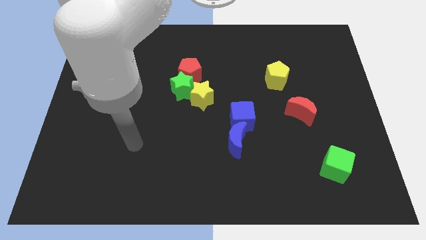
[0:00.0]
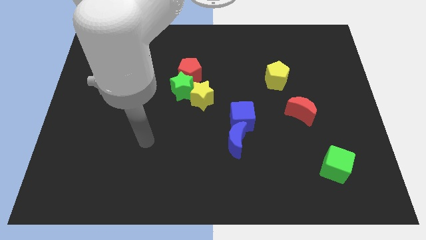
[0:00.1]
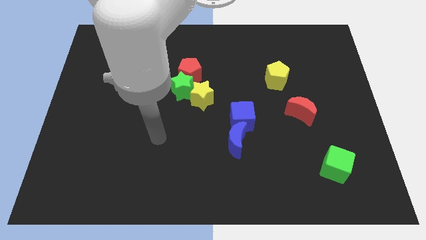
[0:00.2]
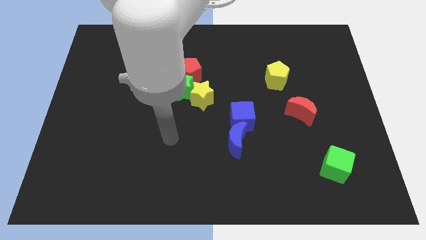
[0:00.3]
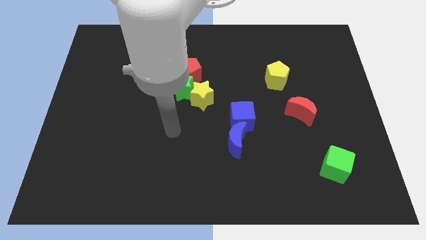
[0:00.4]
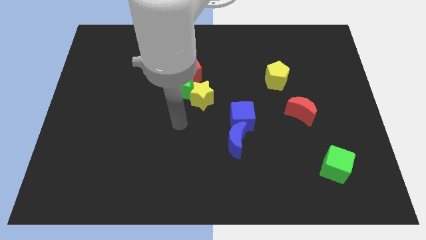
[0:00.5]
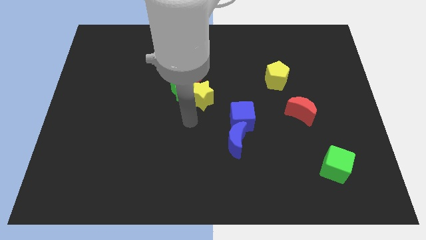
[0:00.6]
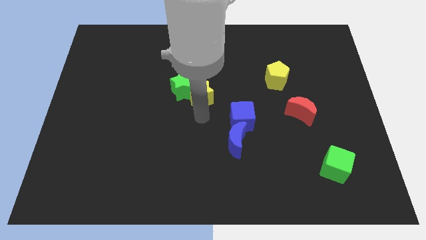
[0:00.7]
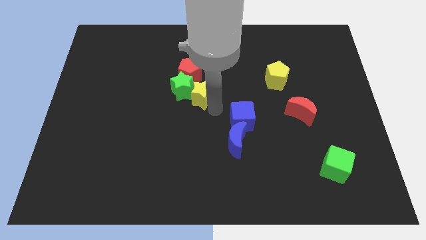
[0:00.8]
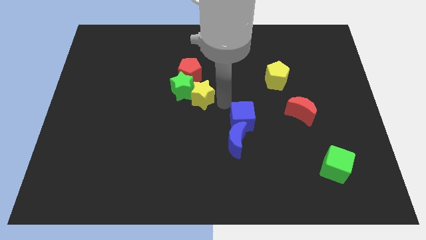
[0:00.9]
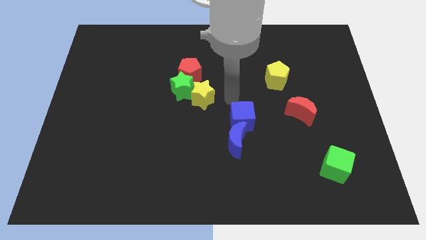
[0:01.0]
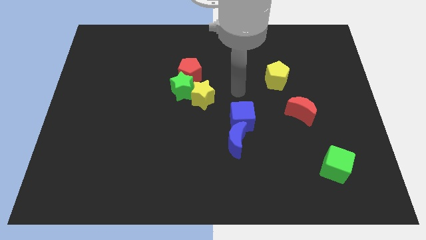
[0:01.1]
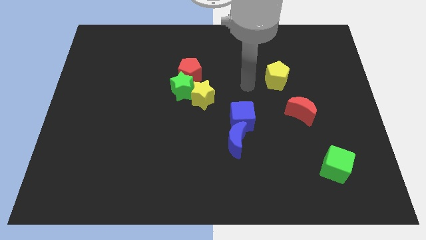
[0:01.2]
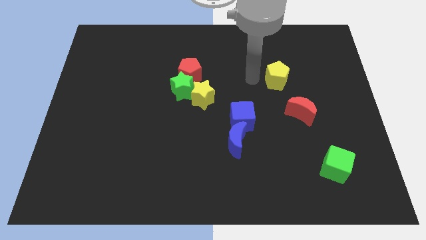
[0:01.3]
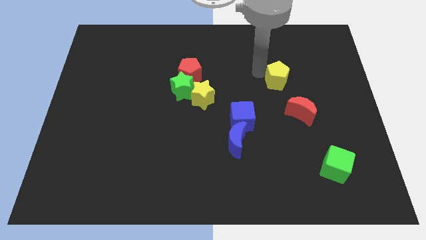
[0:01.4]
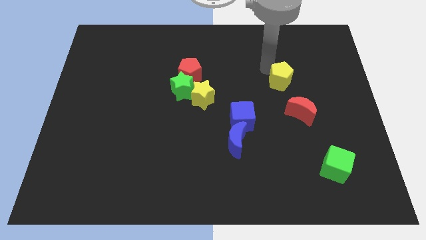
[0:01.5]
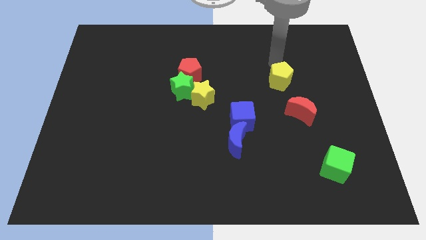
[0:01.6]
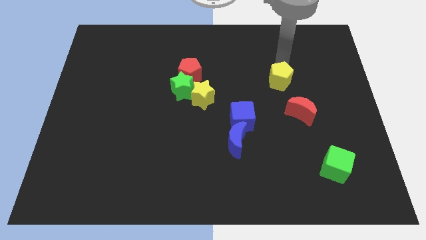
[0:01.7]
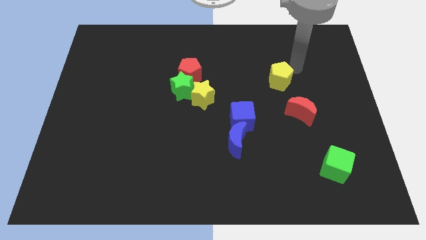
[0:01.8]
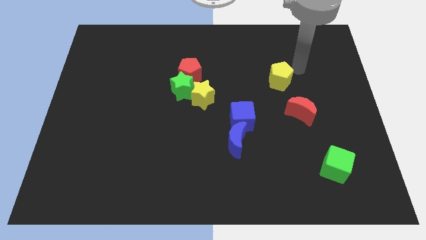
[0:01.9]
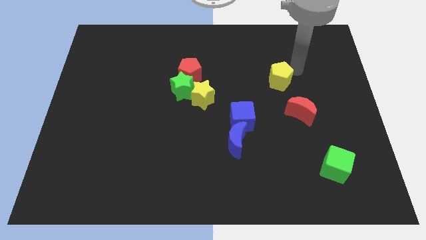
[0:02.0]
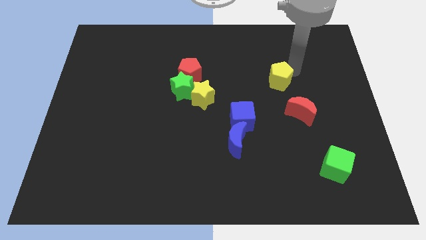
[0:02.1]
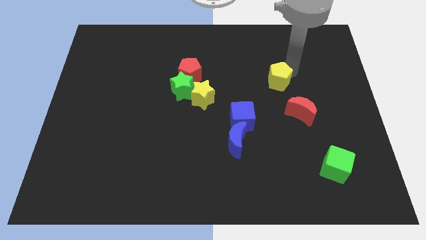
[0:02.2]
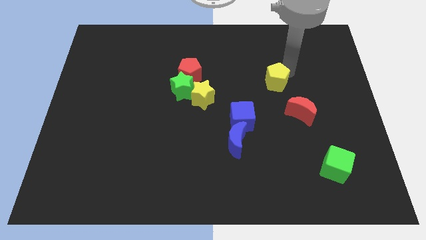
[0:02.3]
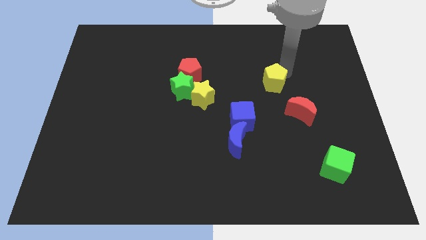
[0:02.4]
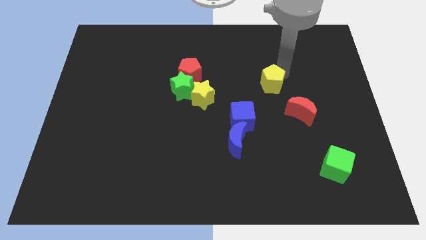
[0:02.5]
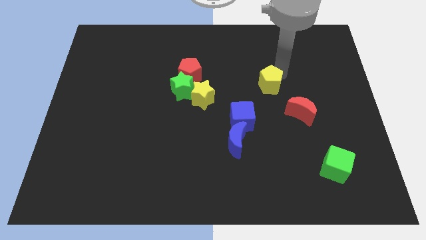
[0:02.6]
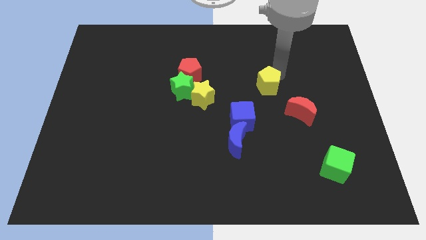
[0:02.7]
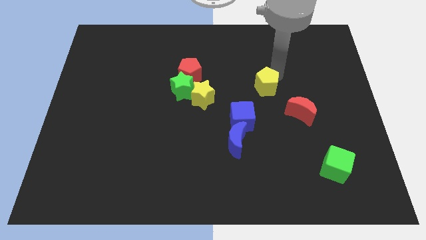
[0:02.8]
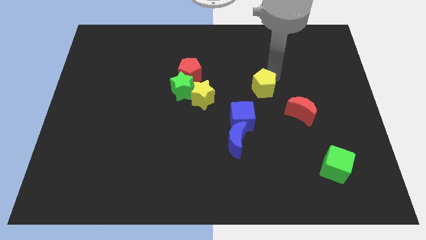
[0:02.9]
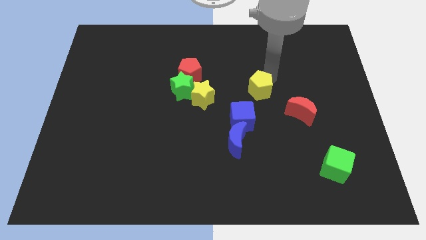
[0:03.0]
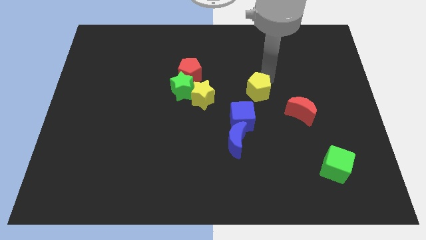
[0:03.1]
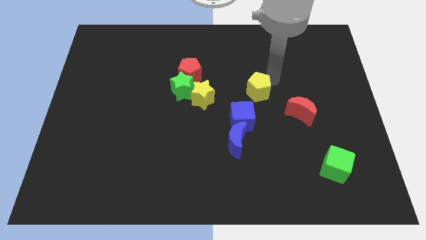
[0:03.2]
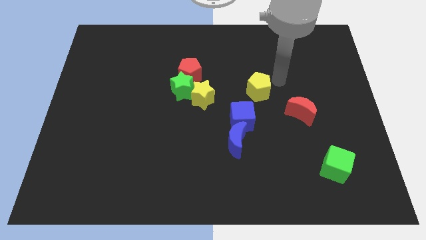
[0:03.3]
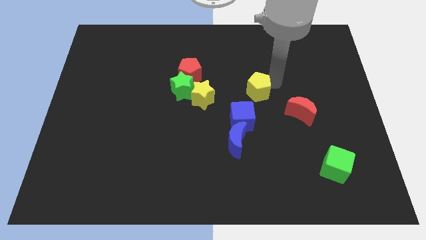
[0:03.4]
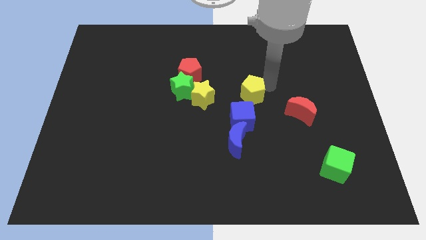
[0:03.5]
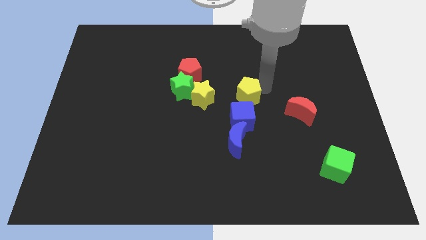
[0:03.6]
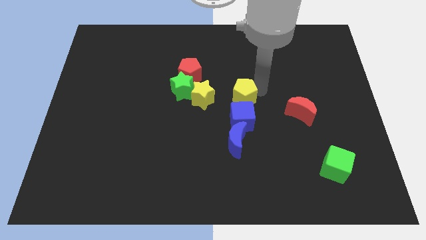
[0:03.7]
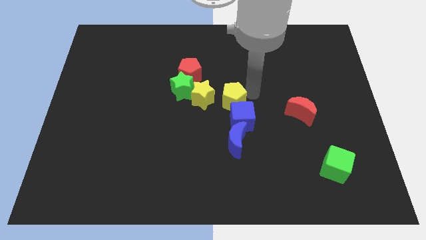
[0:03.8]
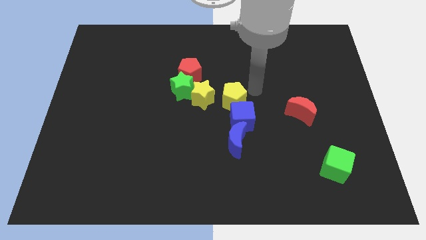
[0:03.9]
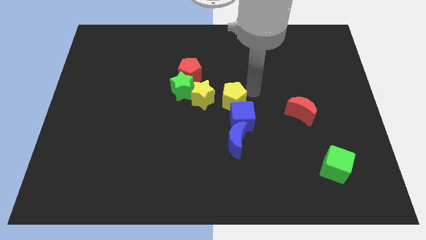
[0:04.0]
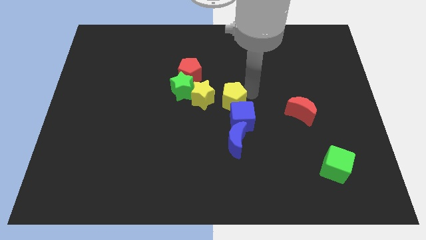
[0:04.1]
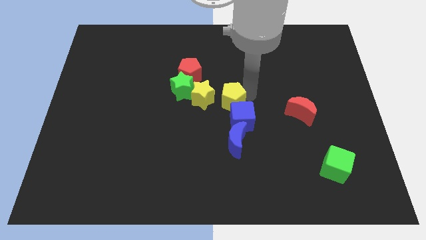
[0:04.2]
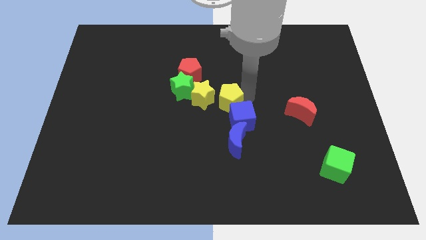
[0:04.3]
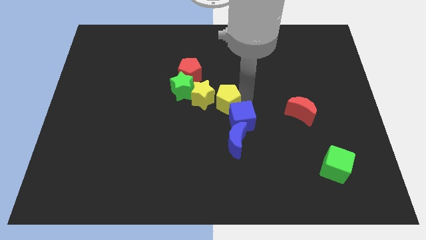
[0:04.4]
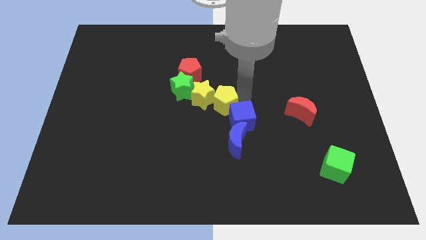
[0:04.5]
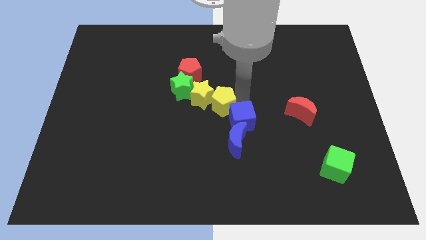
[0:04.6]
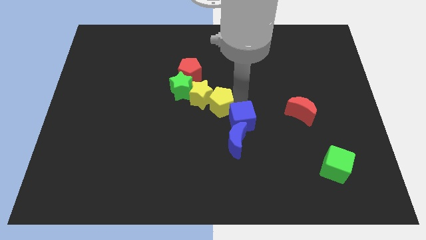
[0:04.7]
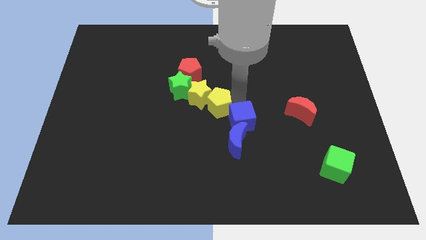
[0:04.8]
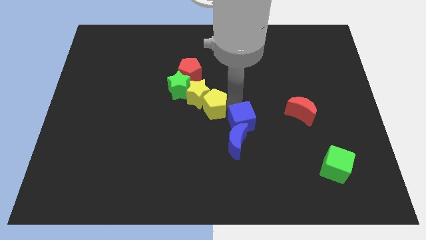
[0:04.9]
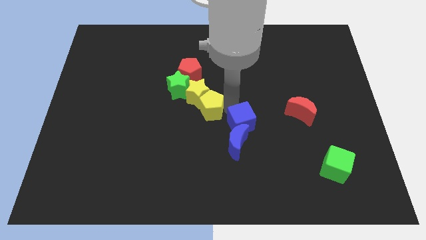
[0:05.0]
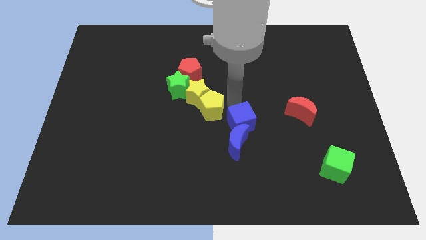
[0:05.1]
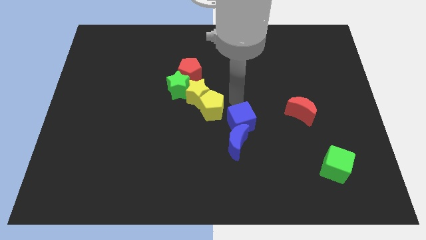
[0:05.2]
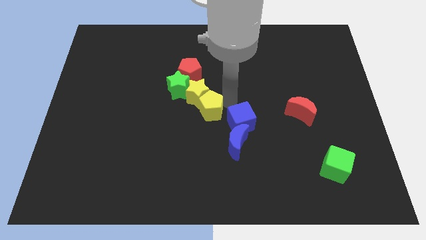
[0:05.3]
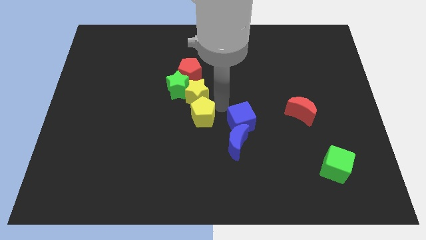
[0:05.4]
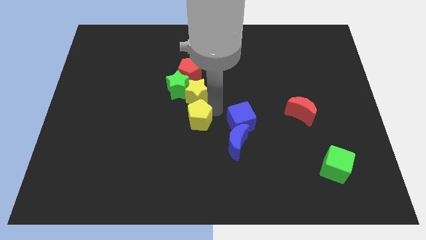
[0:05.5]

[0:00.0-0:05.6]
move the yellow pentagon to the bottom side of the green star

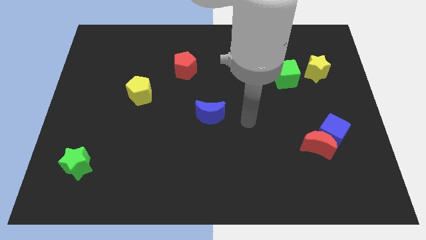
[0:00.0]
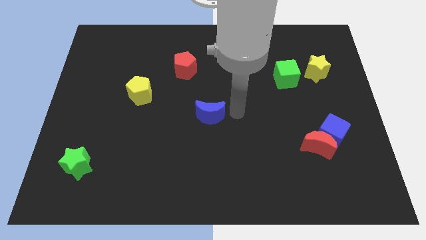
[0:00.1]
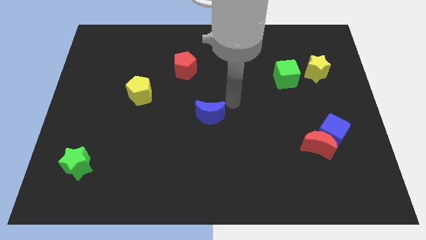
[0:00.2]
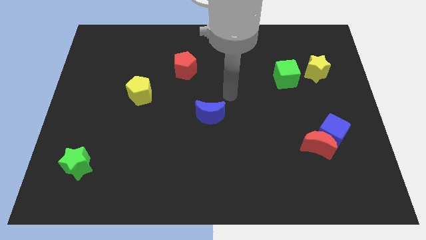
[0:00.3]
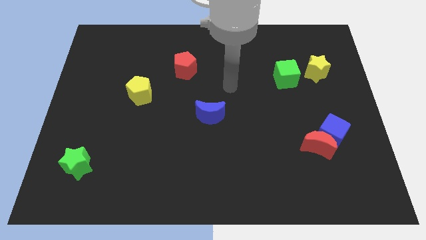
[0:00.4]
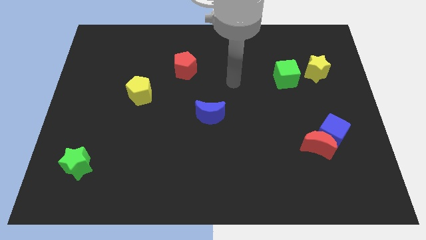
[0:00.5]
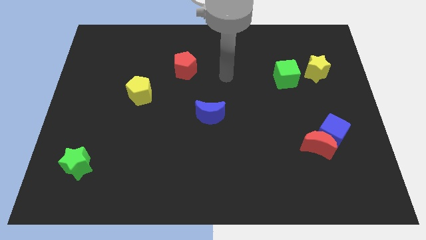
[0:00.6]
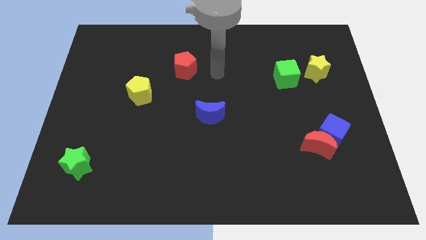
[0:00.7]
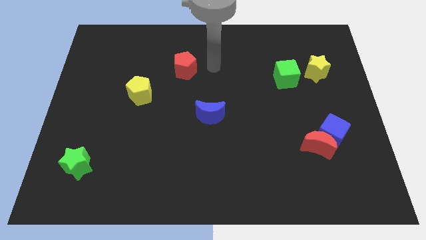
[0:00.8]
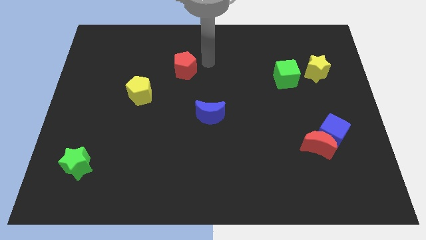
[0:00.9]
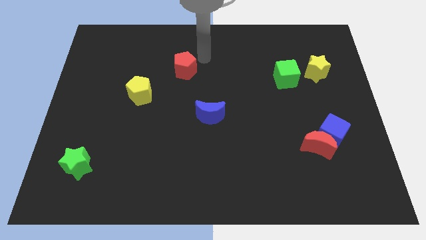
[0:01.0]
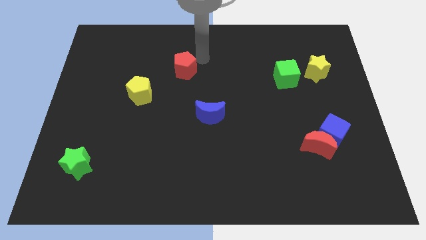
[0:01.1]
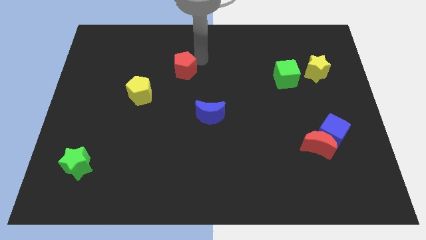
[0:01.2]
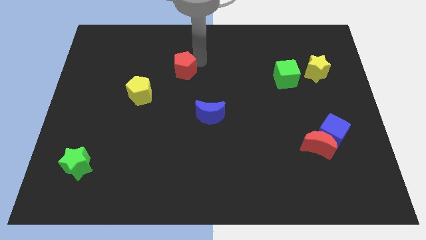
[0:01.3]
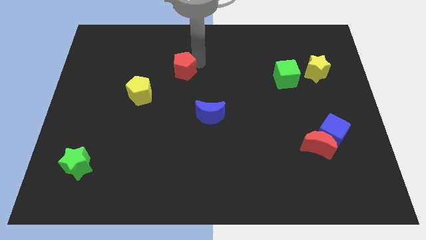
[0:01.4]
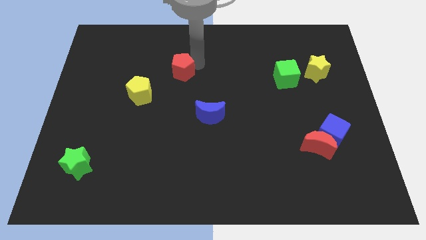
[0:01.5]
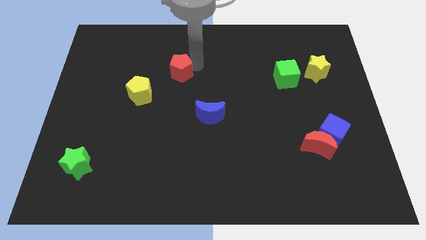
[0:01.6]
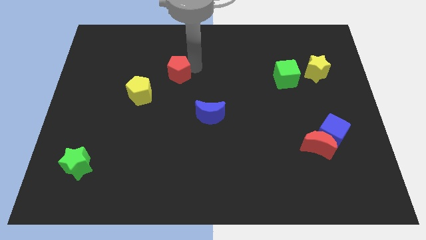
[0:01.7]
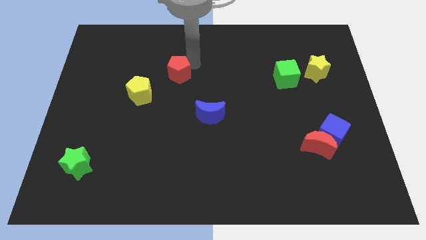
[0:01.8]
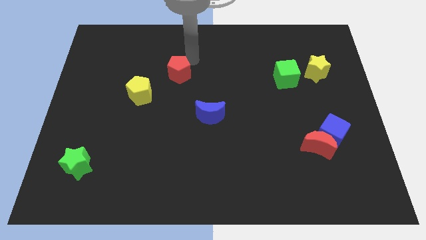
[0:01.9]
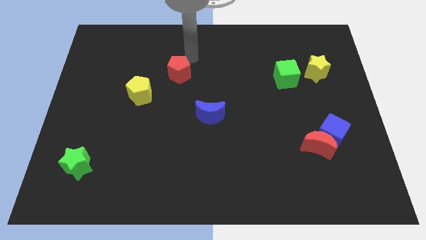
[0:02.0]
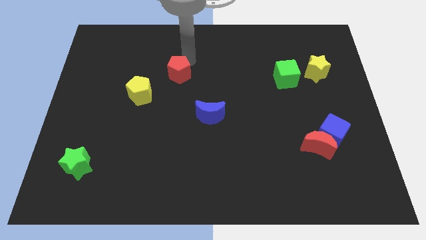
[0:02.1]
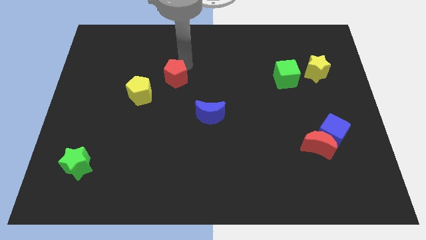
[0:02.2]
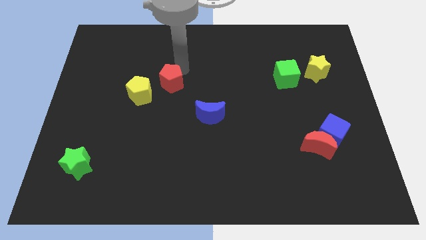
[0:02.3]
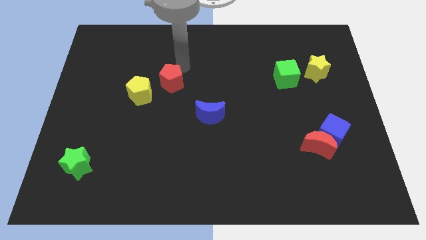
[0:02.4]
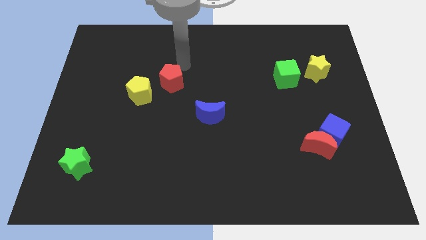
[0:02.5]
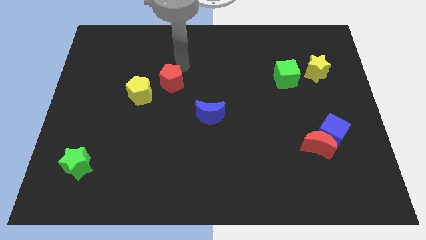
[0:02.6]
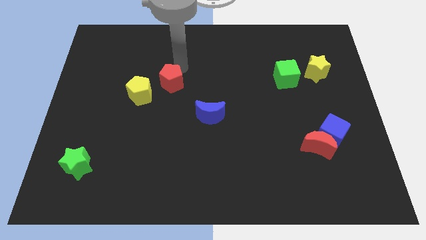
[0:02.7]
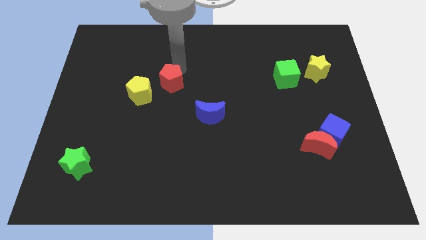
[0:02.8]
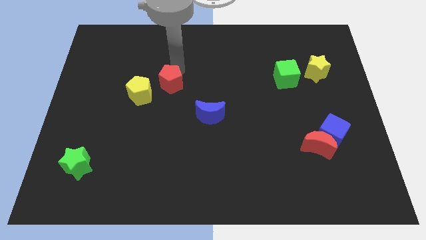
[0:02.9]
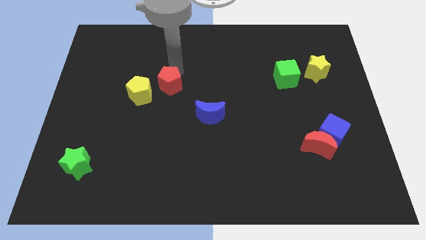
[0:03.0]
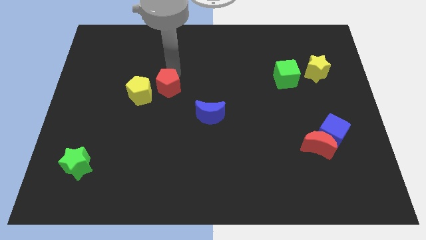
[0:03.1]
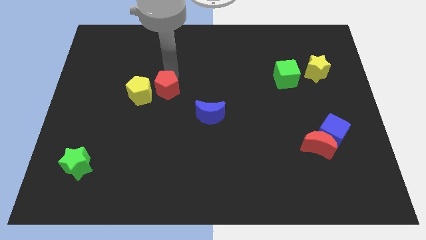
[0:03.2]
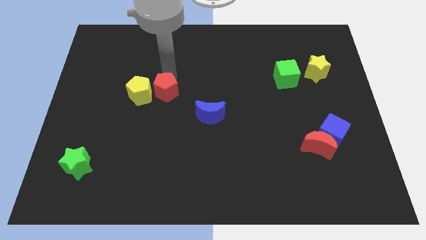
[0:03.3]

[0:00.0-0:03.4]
push the red pentagon to the bottom right side of the yellow pentagon
